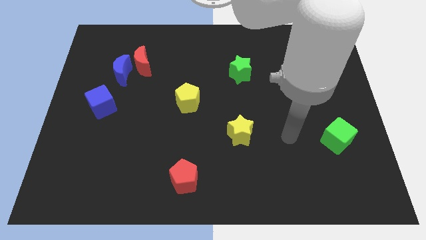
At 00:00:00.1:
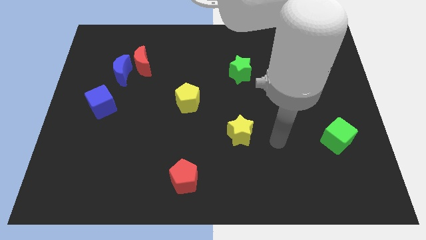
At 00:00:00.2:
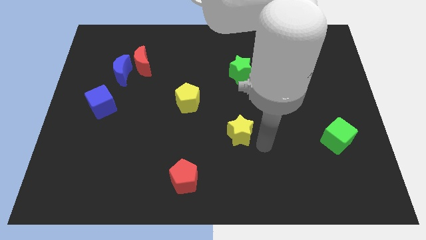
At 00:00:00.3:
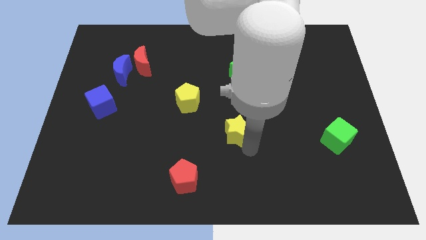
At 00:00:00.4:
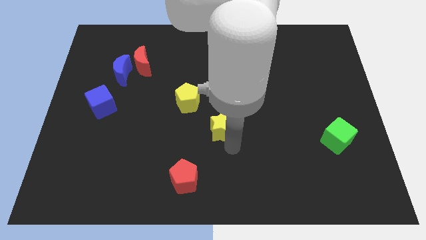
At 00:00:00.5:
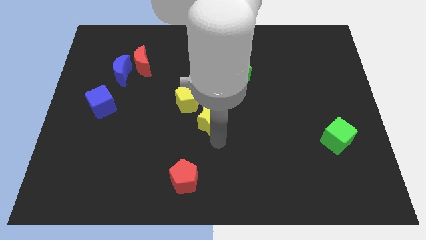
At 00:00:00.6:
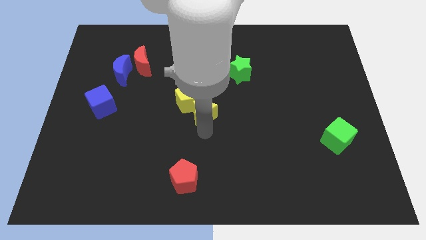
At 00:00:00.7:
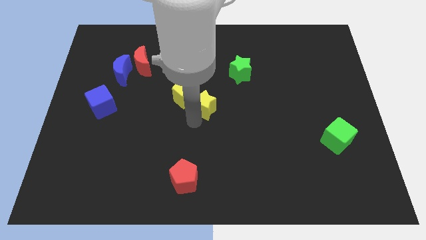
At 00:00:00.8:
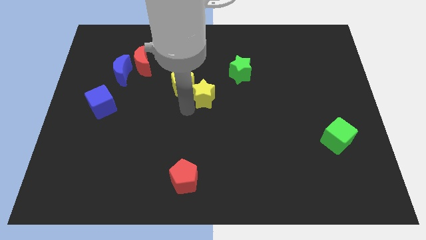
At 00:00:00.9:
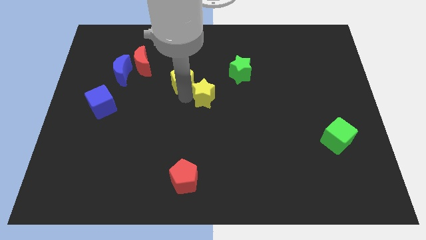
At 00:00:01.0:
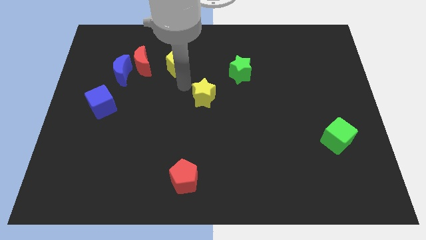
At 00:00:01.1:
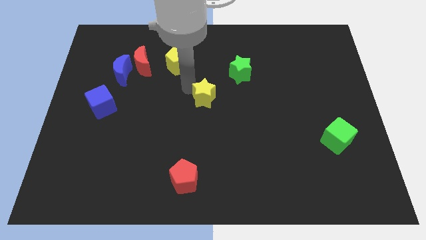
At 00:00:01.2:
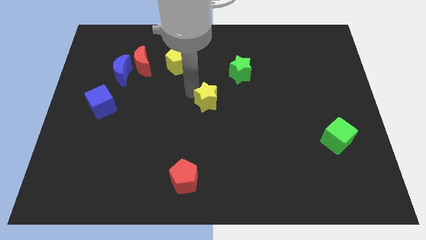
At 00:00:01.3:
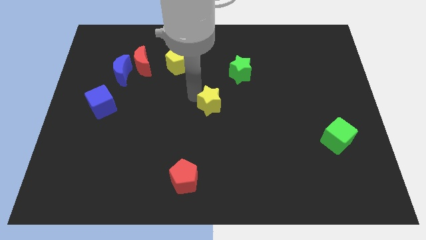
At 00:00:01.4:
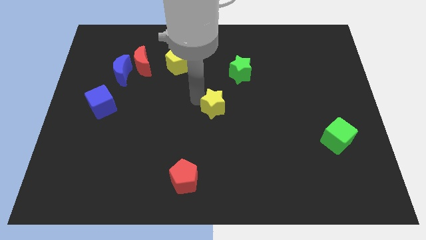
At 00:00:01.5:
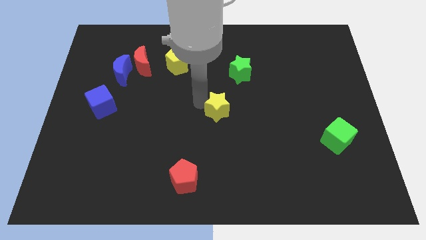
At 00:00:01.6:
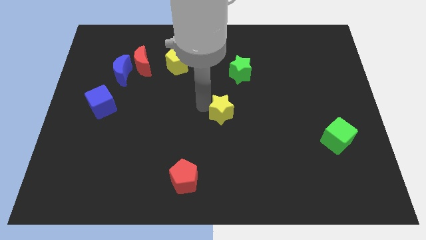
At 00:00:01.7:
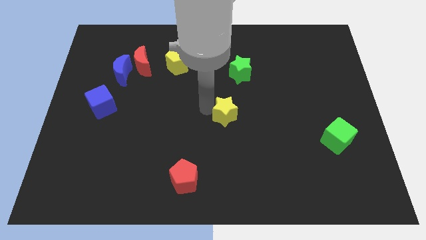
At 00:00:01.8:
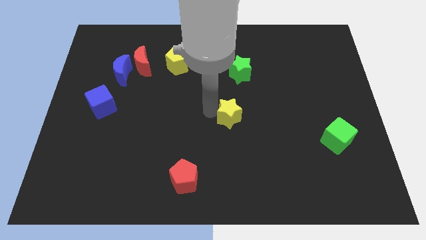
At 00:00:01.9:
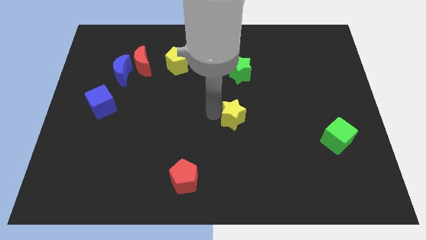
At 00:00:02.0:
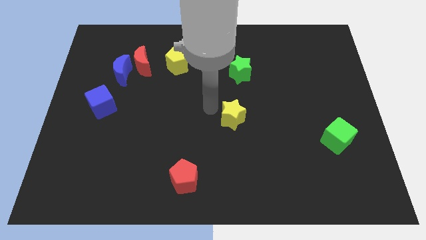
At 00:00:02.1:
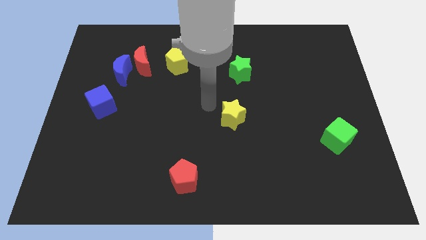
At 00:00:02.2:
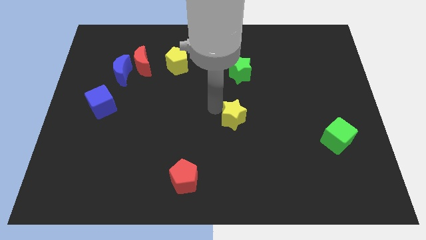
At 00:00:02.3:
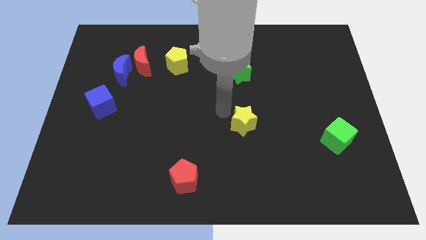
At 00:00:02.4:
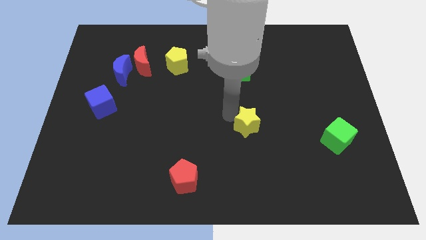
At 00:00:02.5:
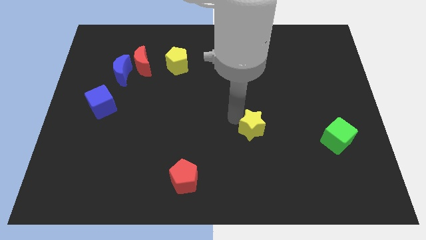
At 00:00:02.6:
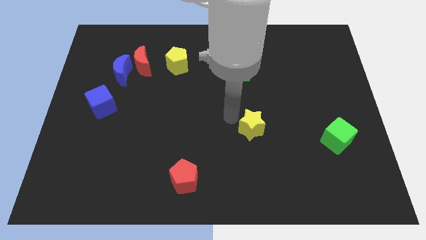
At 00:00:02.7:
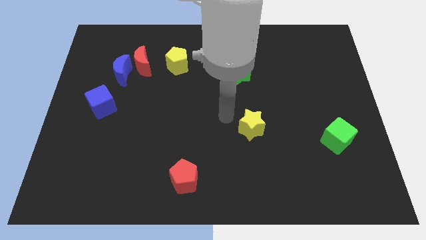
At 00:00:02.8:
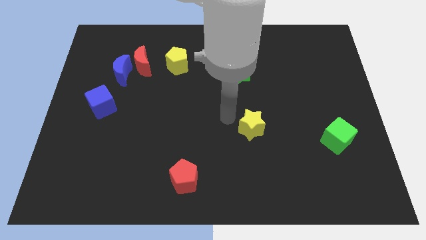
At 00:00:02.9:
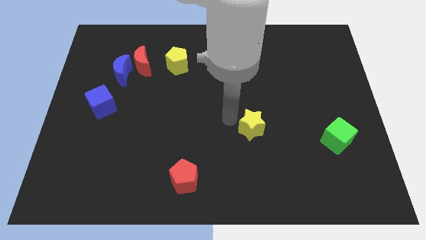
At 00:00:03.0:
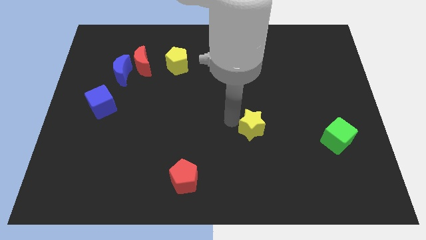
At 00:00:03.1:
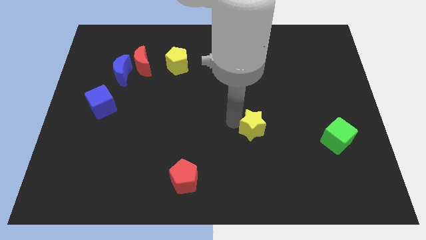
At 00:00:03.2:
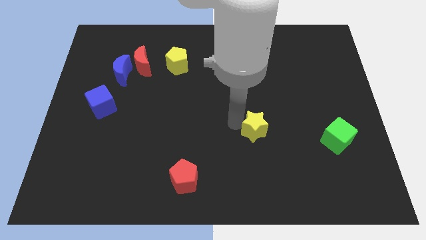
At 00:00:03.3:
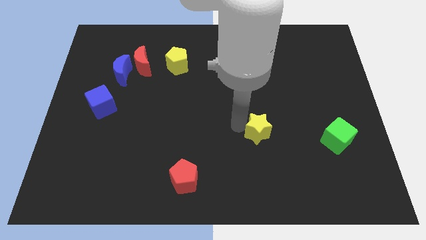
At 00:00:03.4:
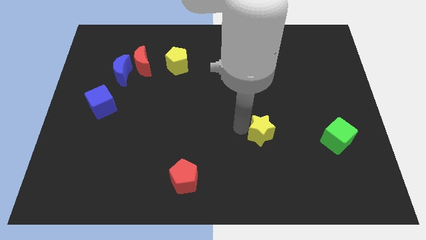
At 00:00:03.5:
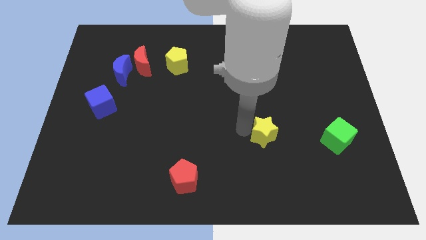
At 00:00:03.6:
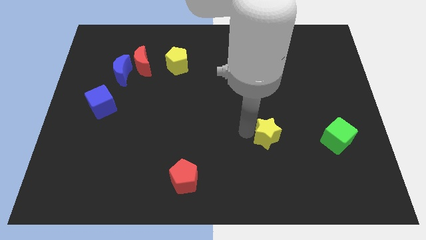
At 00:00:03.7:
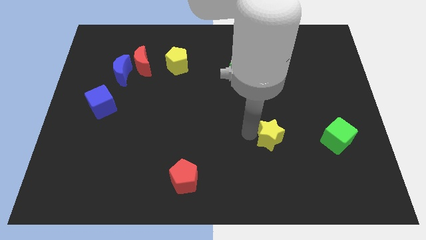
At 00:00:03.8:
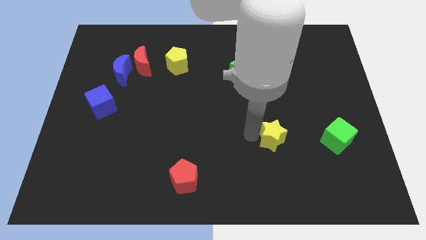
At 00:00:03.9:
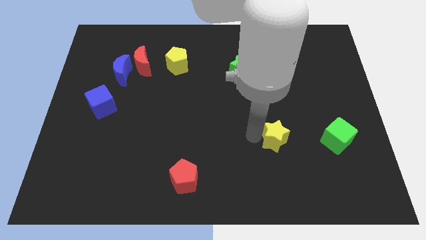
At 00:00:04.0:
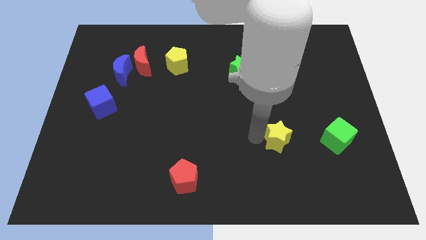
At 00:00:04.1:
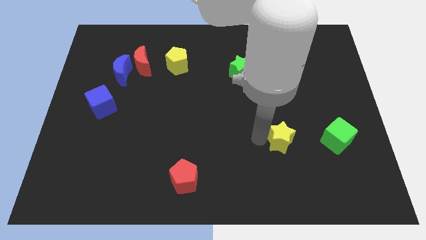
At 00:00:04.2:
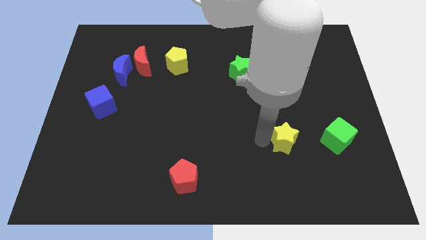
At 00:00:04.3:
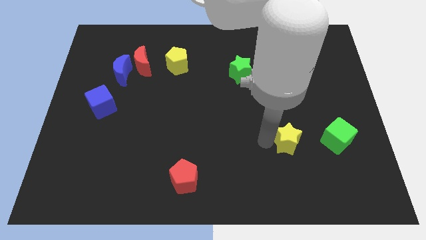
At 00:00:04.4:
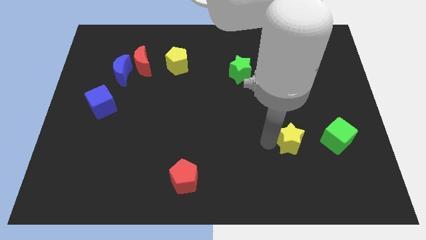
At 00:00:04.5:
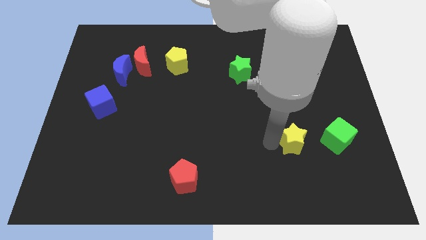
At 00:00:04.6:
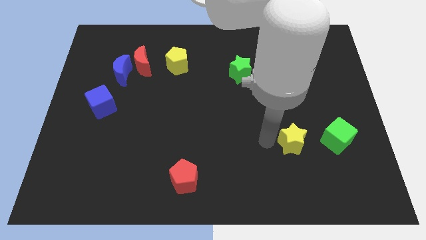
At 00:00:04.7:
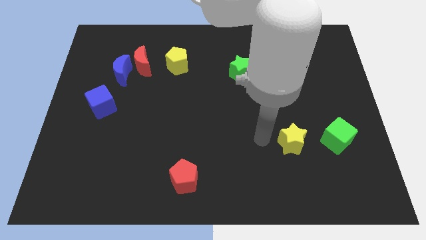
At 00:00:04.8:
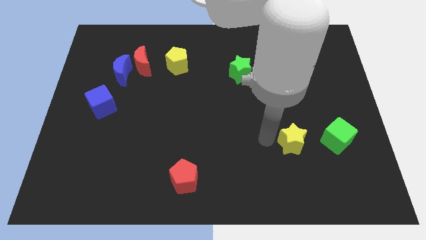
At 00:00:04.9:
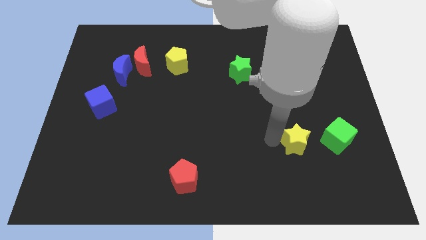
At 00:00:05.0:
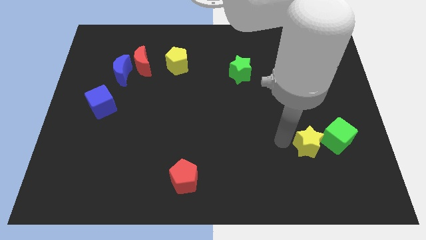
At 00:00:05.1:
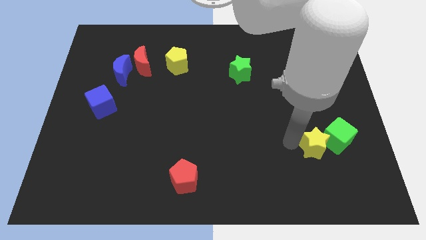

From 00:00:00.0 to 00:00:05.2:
push the yellow star to the green cube

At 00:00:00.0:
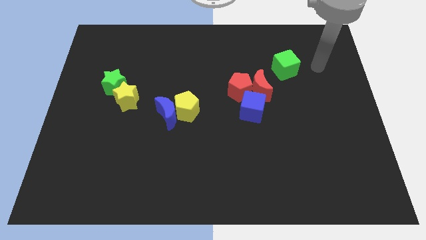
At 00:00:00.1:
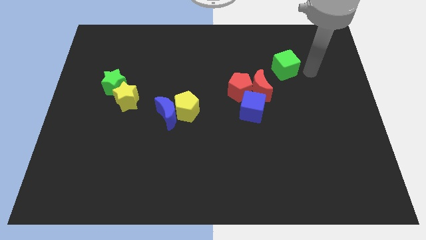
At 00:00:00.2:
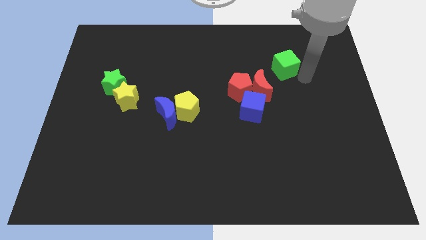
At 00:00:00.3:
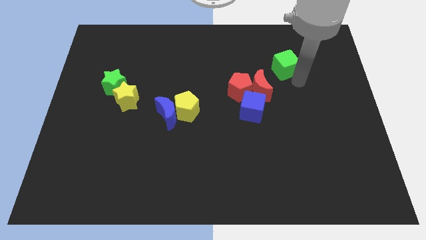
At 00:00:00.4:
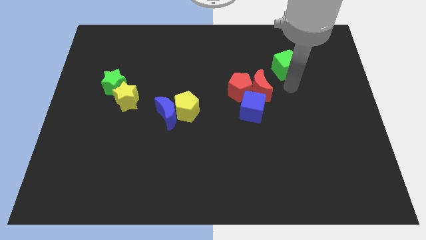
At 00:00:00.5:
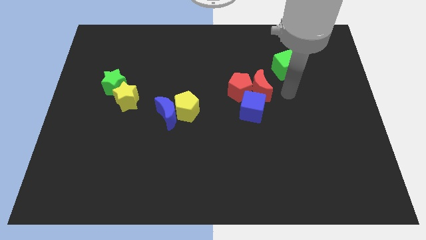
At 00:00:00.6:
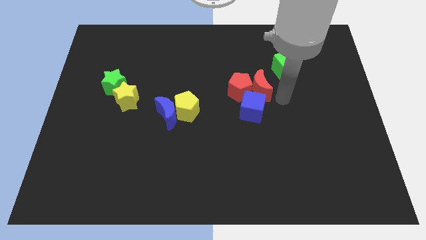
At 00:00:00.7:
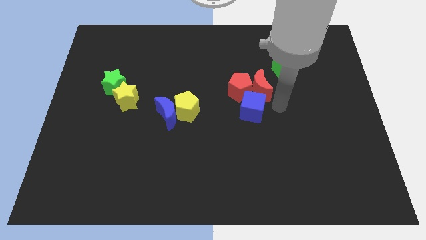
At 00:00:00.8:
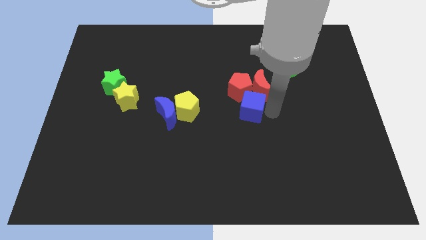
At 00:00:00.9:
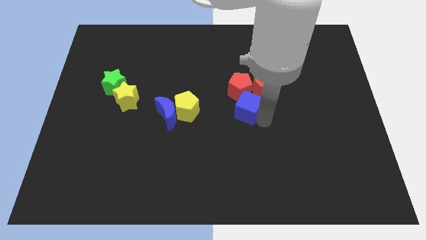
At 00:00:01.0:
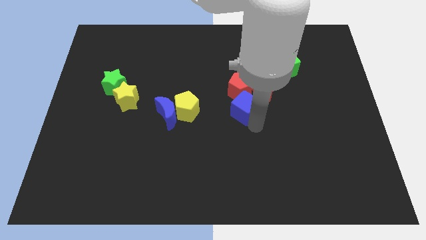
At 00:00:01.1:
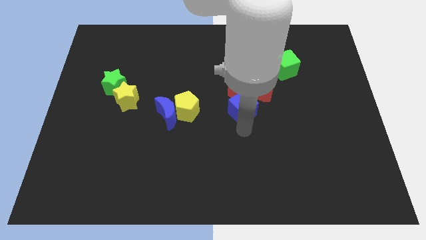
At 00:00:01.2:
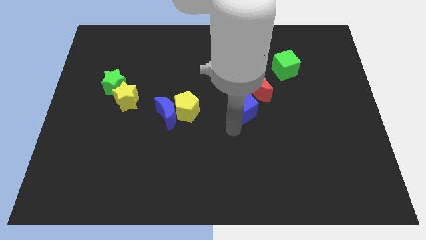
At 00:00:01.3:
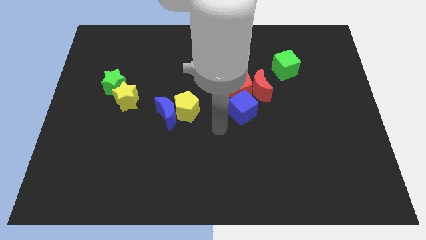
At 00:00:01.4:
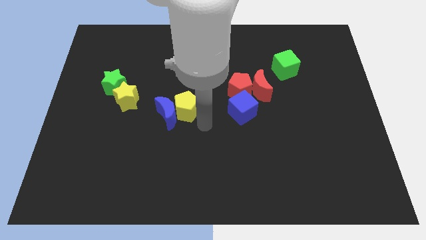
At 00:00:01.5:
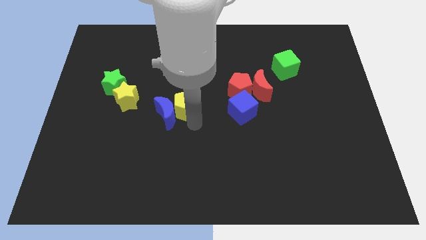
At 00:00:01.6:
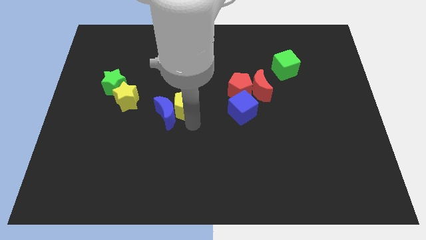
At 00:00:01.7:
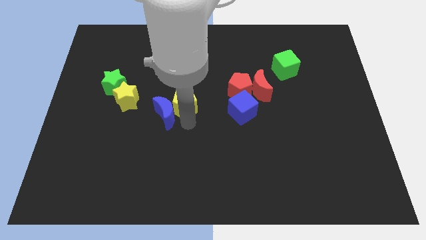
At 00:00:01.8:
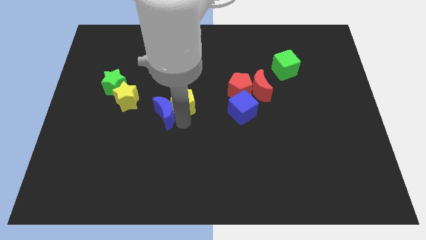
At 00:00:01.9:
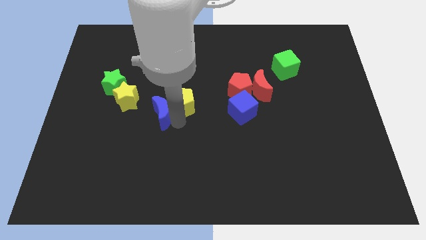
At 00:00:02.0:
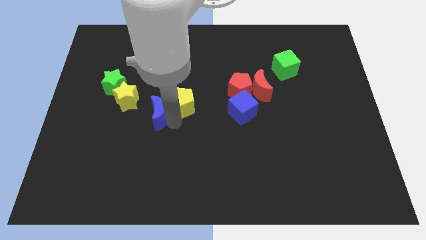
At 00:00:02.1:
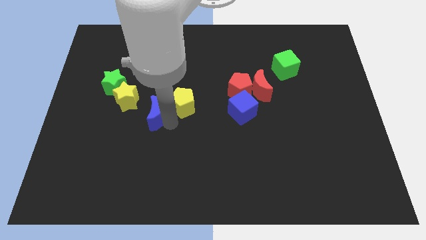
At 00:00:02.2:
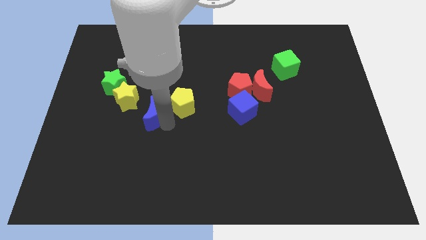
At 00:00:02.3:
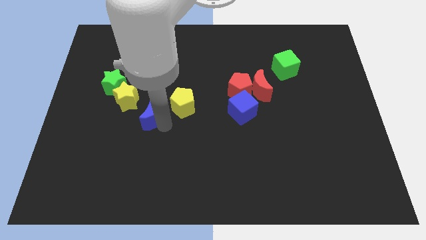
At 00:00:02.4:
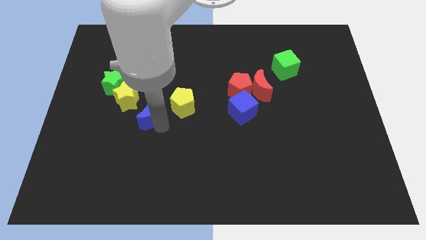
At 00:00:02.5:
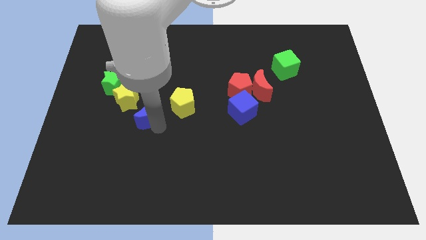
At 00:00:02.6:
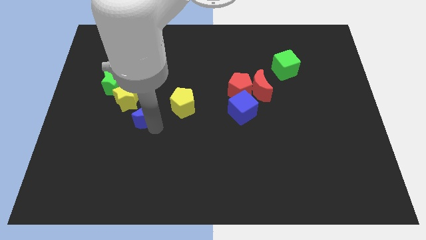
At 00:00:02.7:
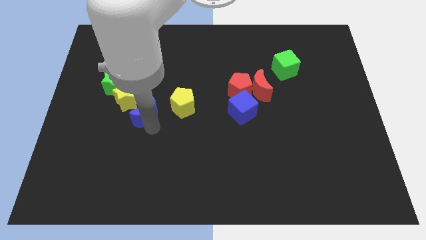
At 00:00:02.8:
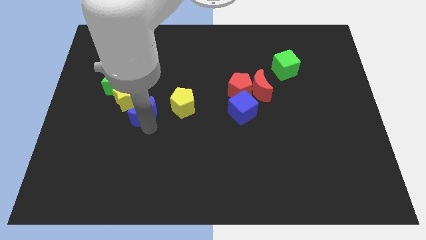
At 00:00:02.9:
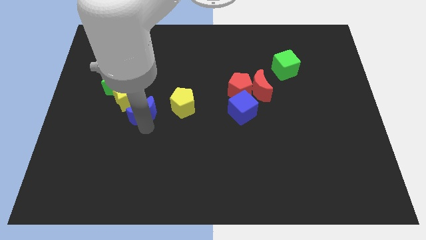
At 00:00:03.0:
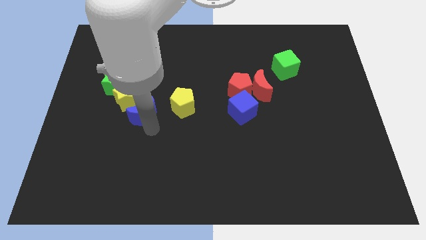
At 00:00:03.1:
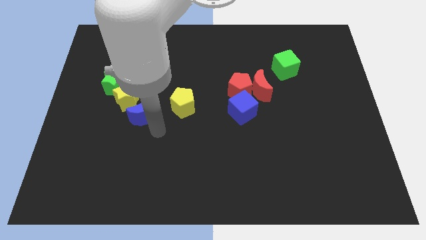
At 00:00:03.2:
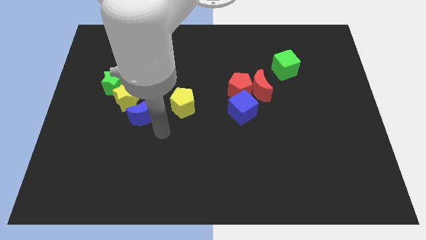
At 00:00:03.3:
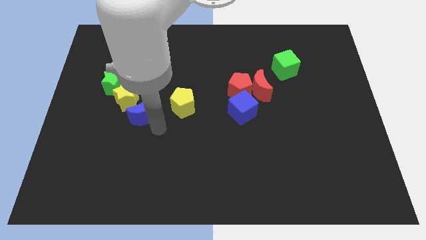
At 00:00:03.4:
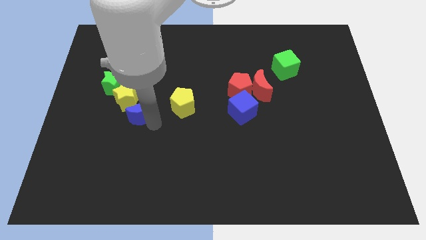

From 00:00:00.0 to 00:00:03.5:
slide the blue moon to the yellow star
